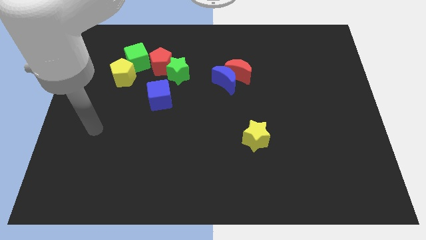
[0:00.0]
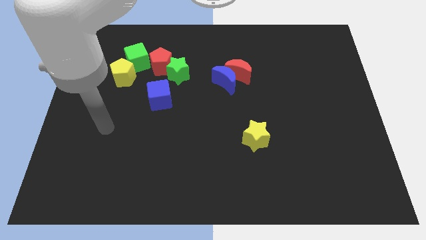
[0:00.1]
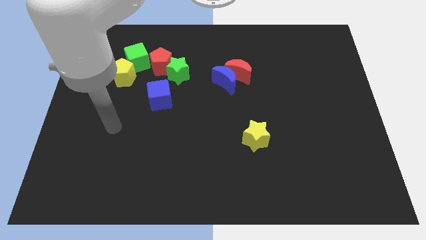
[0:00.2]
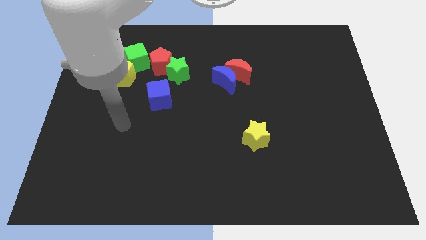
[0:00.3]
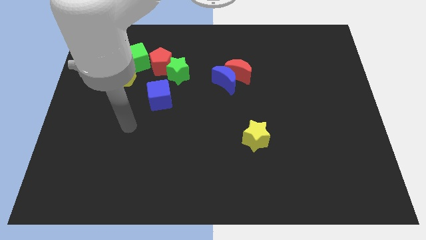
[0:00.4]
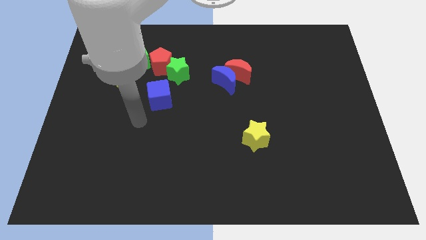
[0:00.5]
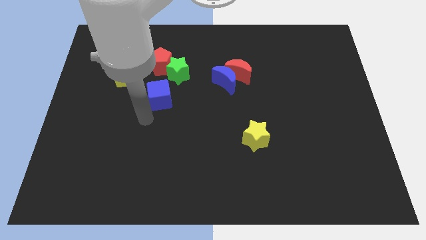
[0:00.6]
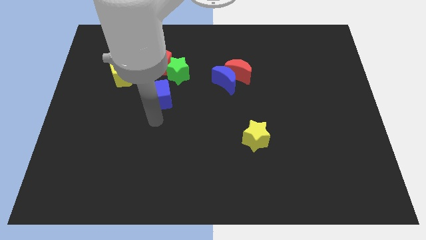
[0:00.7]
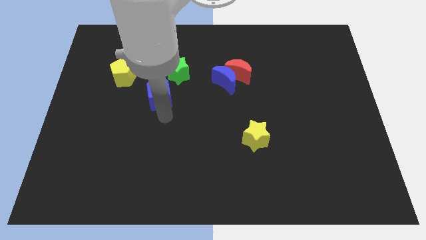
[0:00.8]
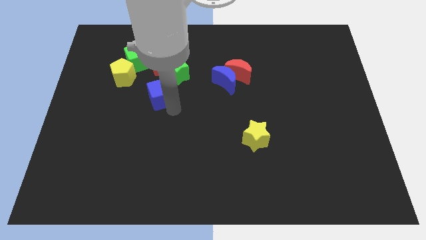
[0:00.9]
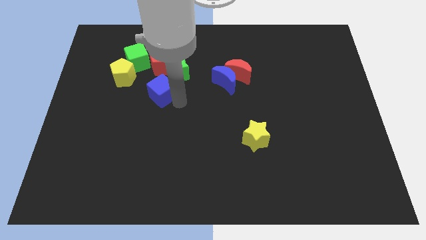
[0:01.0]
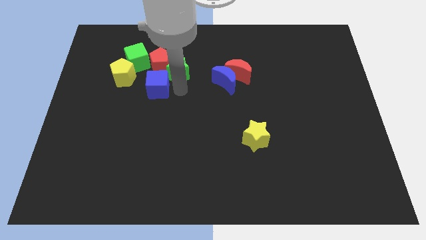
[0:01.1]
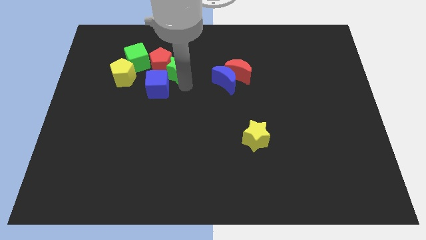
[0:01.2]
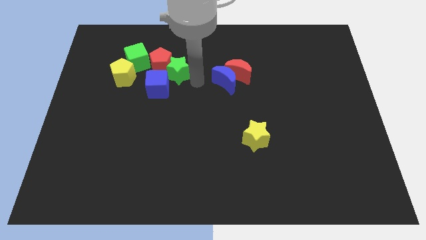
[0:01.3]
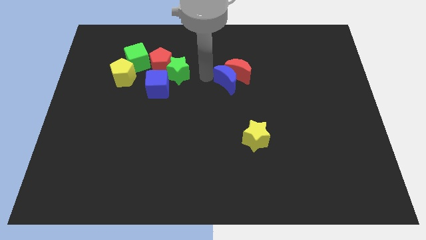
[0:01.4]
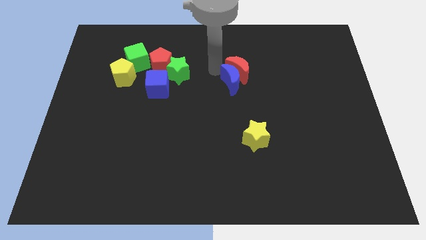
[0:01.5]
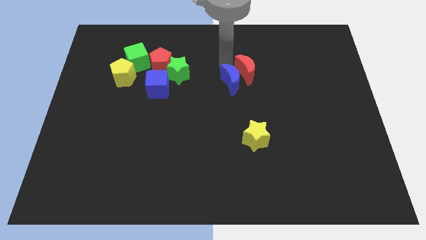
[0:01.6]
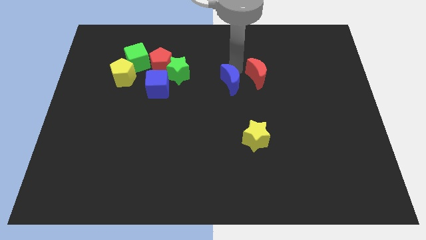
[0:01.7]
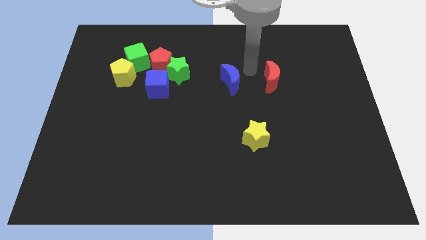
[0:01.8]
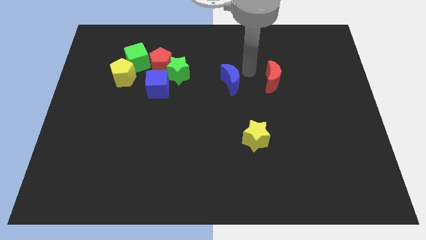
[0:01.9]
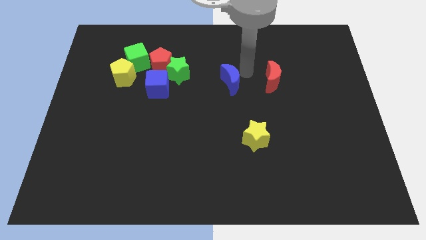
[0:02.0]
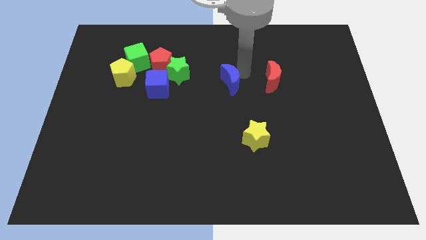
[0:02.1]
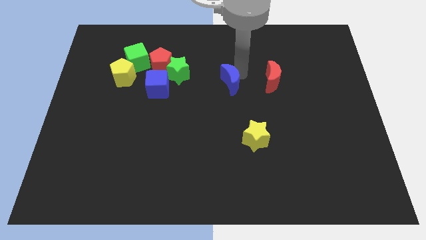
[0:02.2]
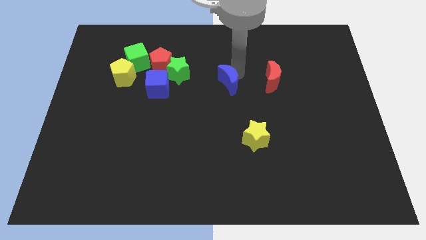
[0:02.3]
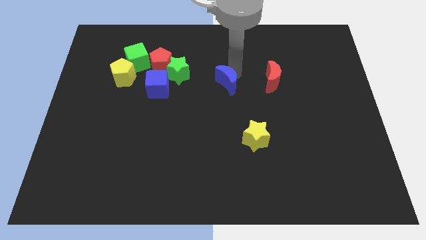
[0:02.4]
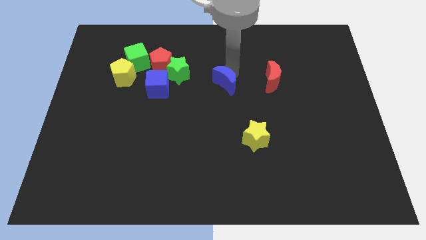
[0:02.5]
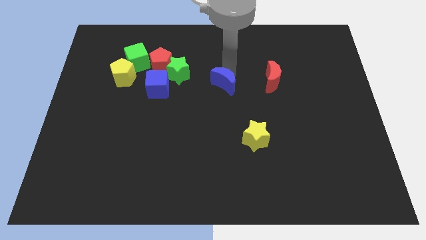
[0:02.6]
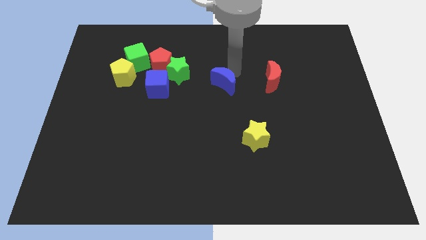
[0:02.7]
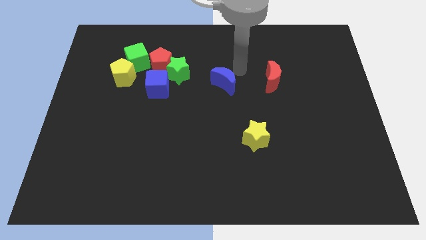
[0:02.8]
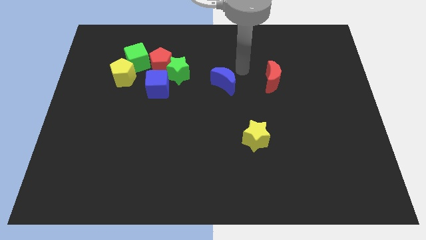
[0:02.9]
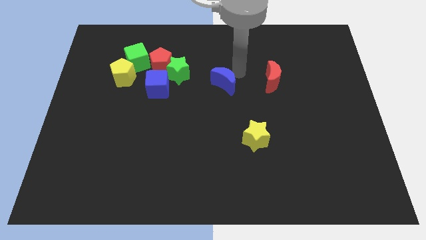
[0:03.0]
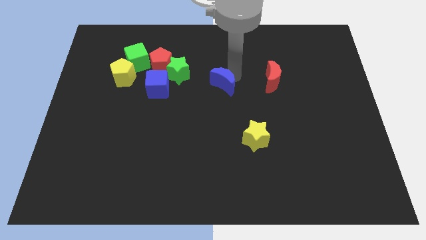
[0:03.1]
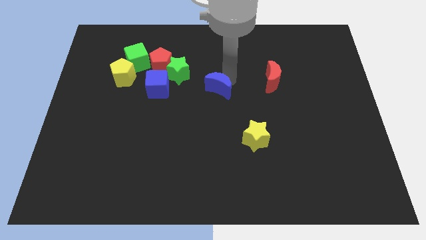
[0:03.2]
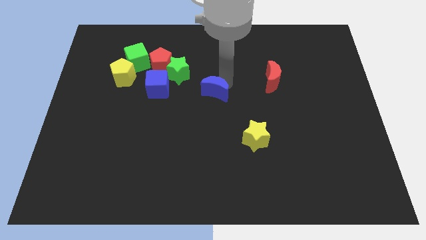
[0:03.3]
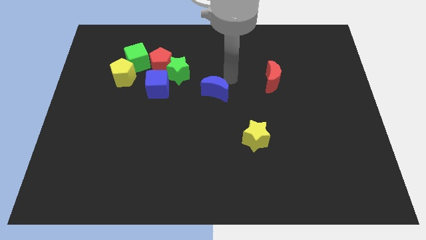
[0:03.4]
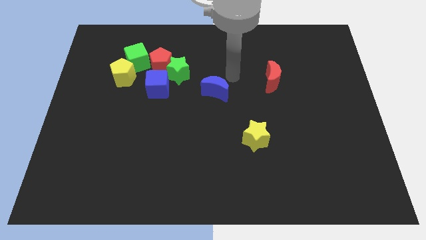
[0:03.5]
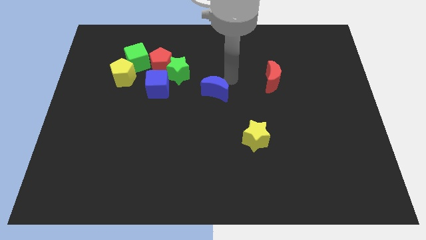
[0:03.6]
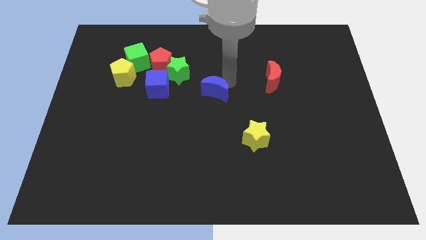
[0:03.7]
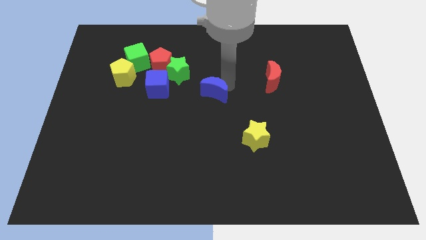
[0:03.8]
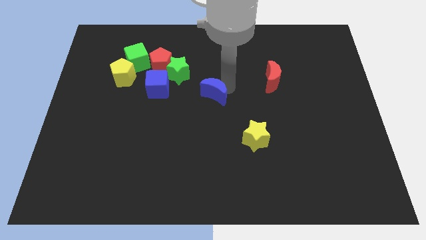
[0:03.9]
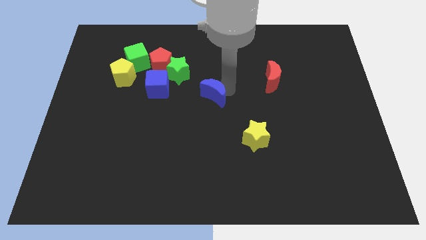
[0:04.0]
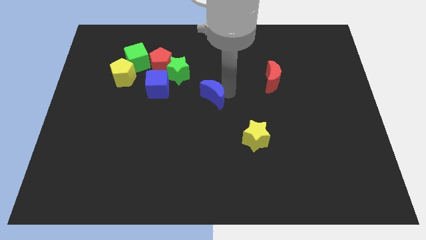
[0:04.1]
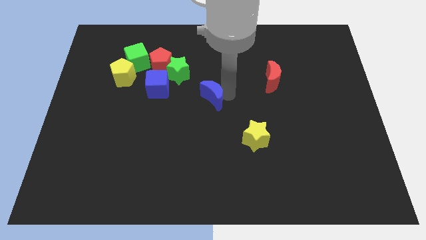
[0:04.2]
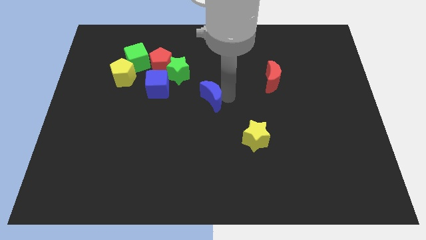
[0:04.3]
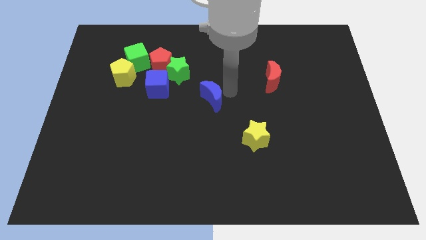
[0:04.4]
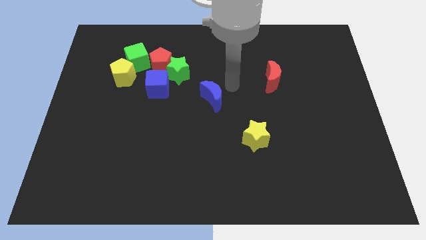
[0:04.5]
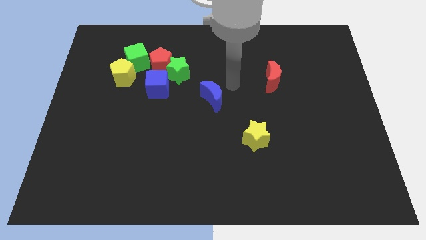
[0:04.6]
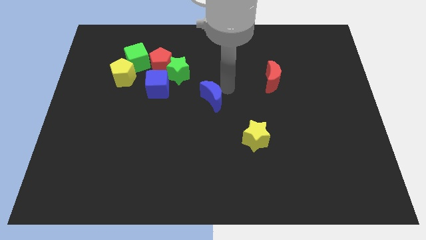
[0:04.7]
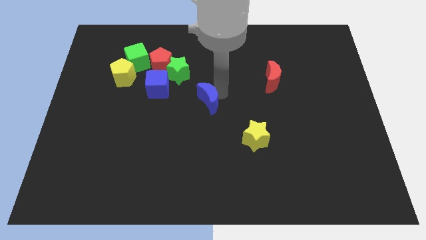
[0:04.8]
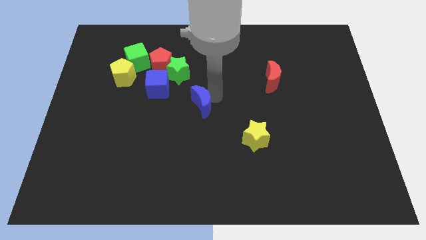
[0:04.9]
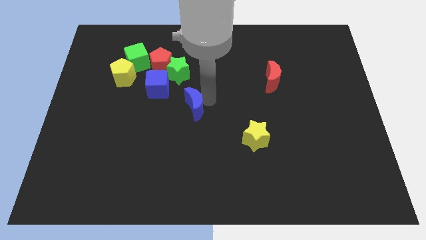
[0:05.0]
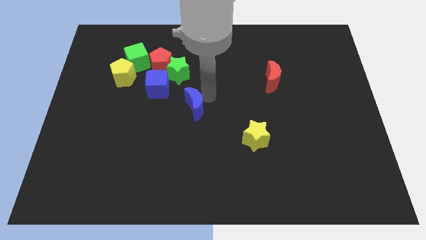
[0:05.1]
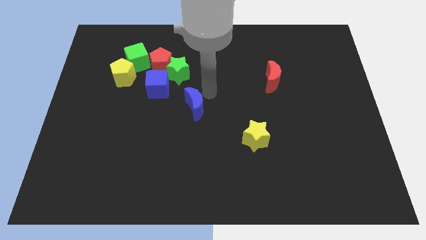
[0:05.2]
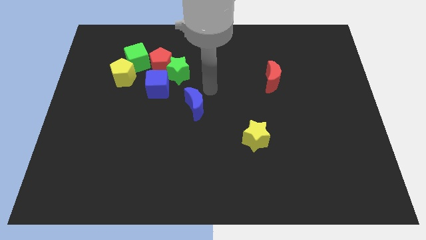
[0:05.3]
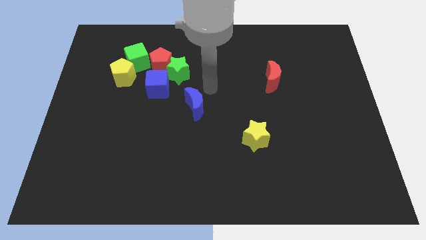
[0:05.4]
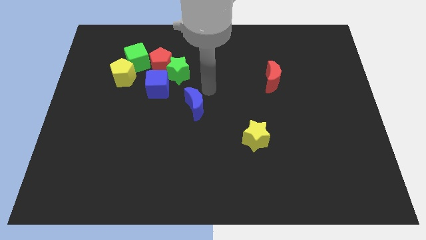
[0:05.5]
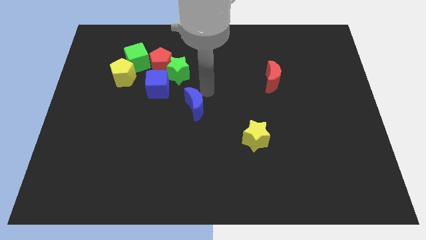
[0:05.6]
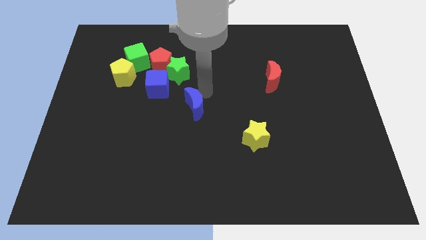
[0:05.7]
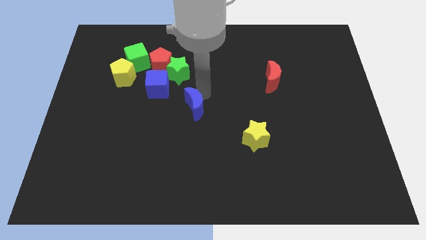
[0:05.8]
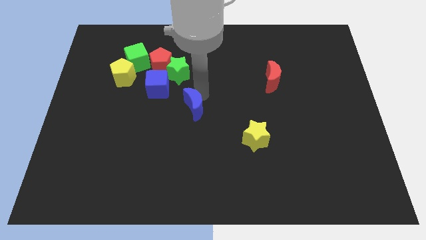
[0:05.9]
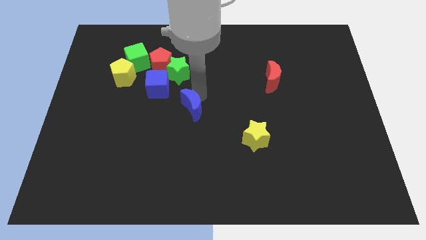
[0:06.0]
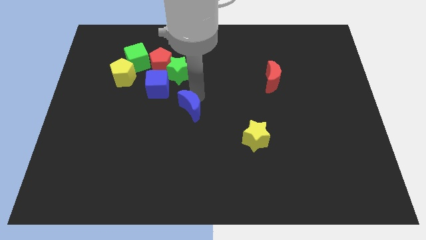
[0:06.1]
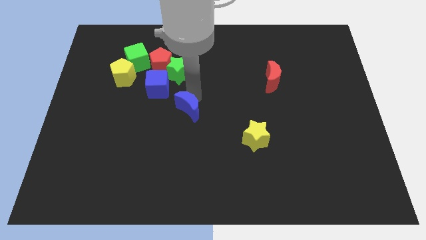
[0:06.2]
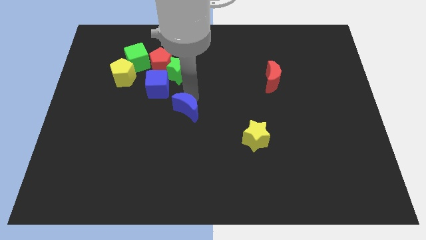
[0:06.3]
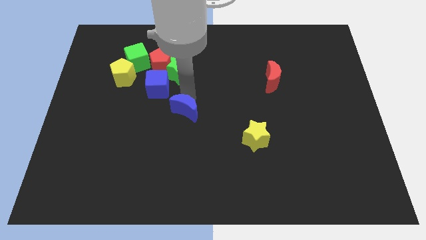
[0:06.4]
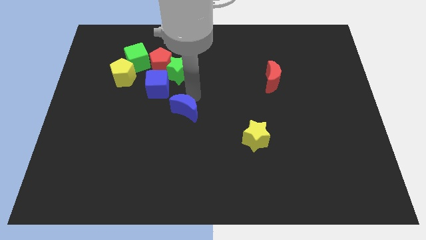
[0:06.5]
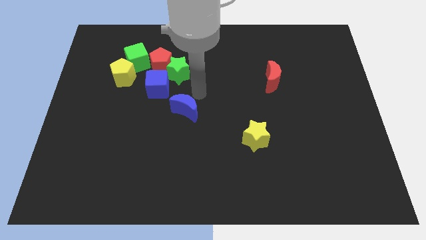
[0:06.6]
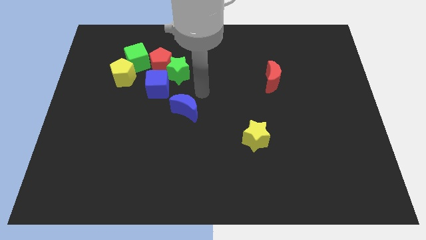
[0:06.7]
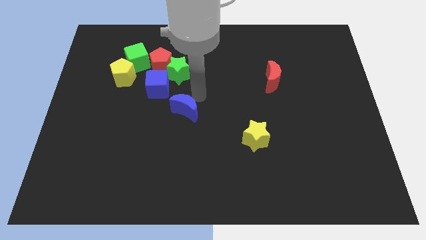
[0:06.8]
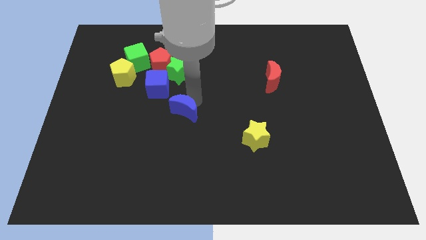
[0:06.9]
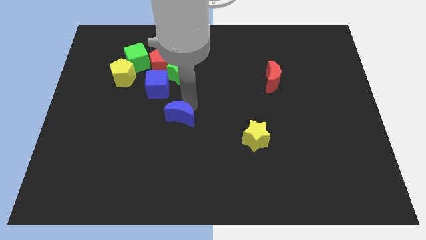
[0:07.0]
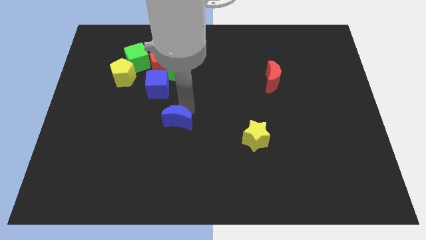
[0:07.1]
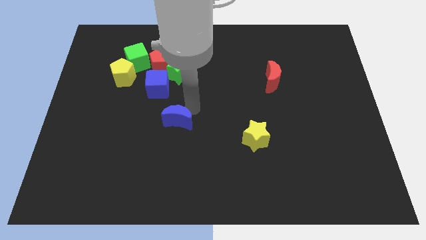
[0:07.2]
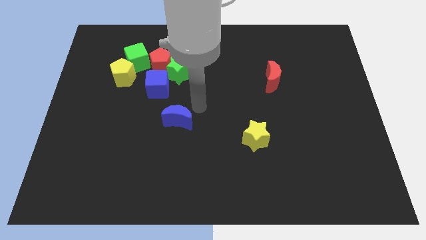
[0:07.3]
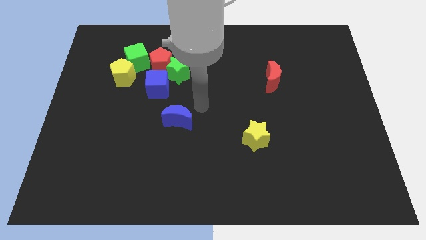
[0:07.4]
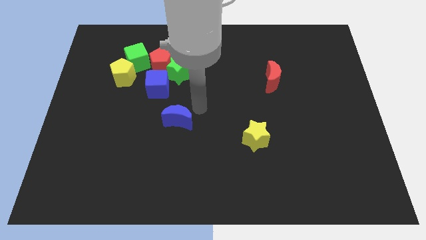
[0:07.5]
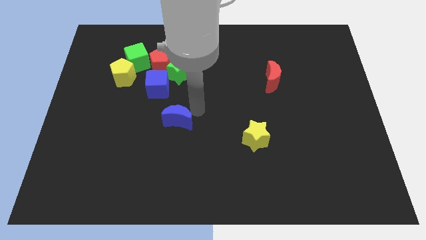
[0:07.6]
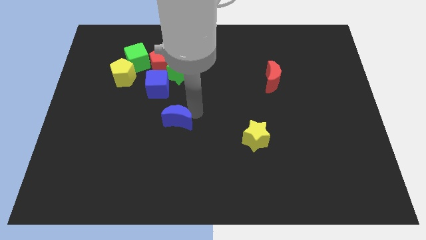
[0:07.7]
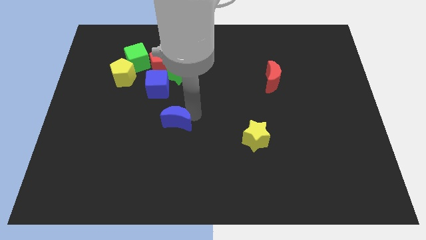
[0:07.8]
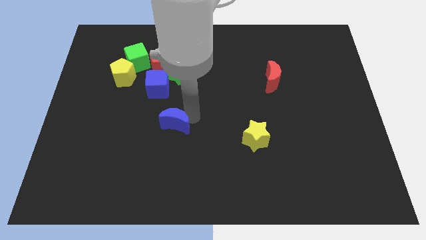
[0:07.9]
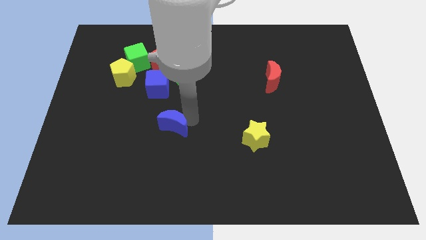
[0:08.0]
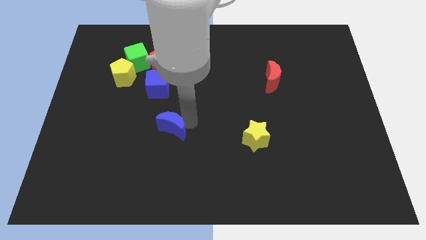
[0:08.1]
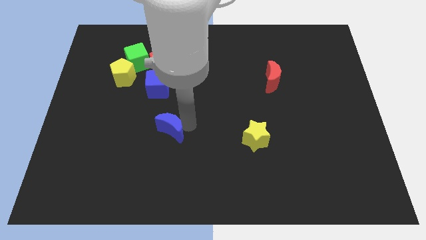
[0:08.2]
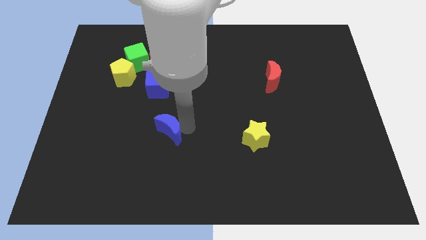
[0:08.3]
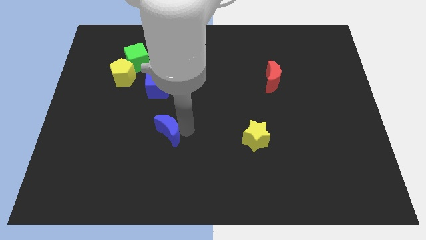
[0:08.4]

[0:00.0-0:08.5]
move the blue moon diagonally downwards and to the left
